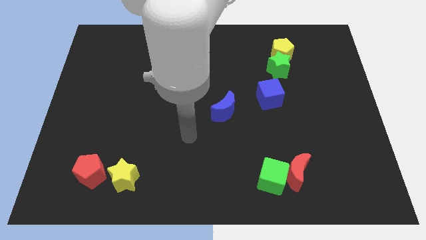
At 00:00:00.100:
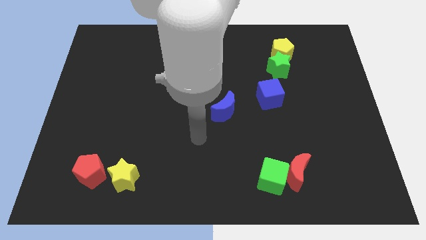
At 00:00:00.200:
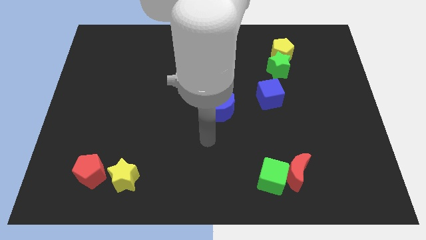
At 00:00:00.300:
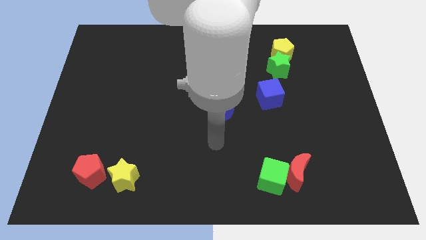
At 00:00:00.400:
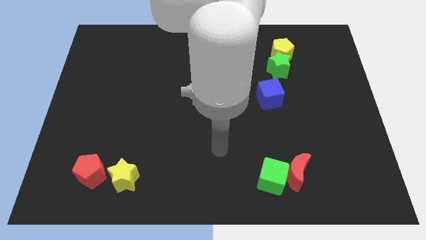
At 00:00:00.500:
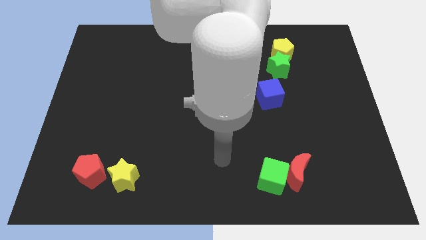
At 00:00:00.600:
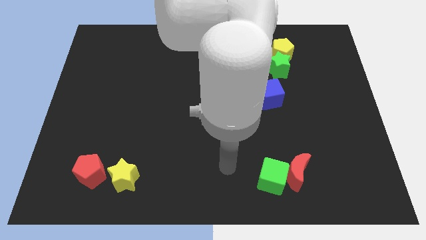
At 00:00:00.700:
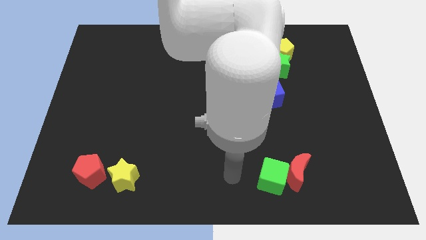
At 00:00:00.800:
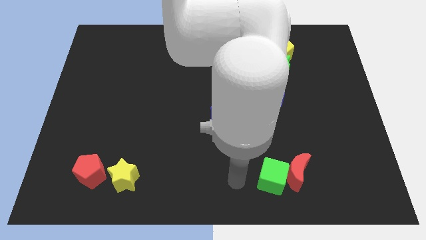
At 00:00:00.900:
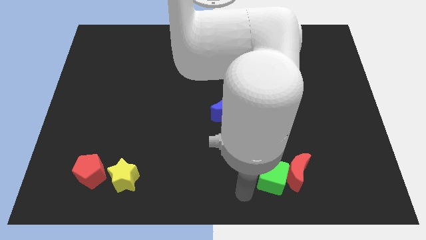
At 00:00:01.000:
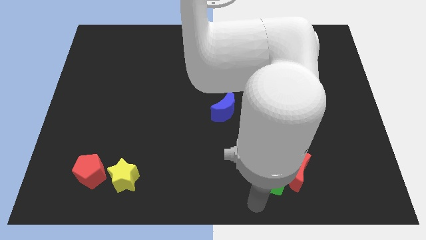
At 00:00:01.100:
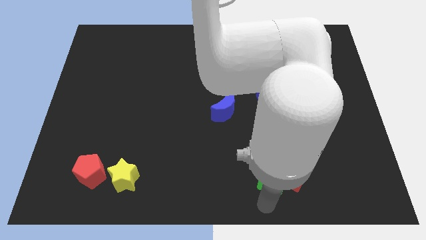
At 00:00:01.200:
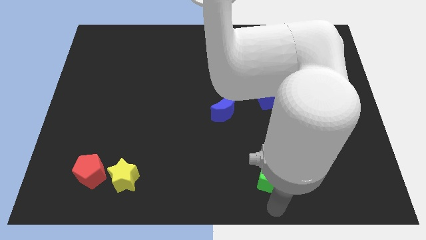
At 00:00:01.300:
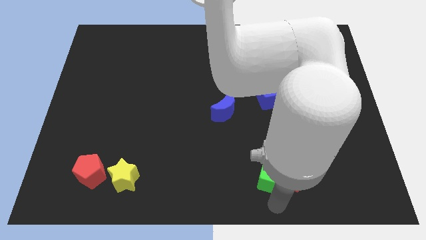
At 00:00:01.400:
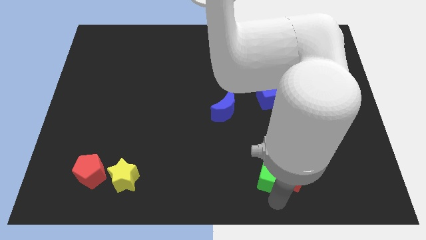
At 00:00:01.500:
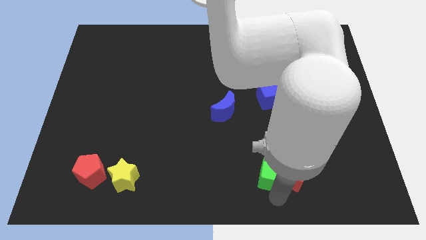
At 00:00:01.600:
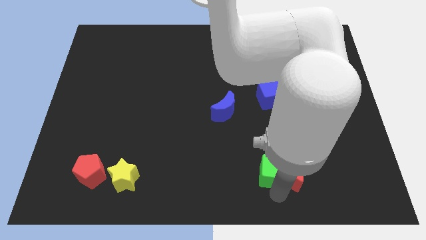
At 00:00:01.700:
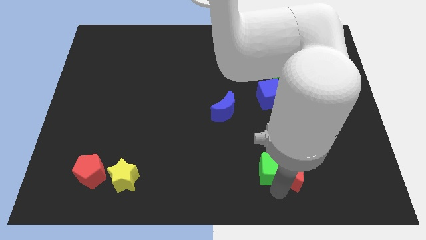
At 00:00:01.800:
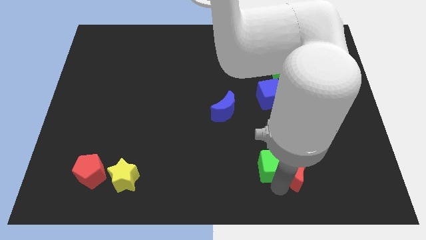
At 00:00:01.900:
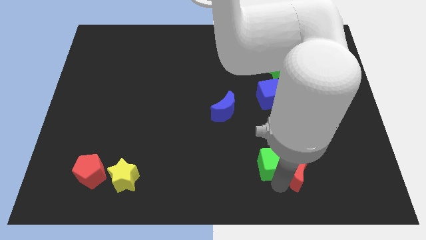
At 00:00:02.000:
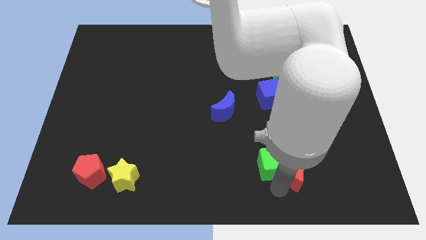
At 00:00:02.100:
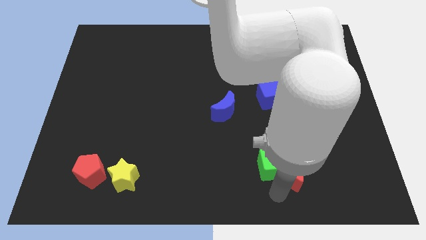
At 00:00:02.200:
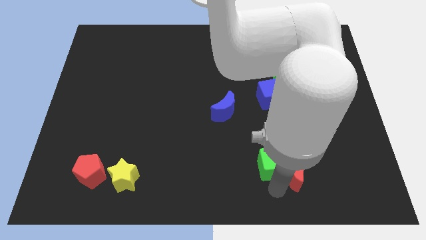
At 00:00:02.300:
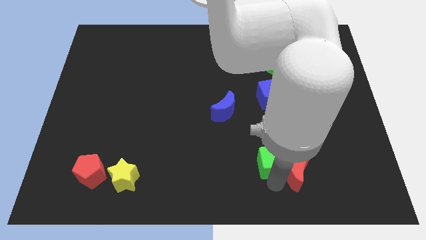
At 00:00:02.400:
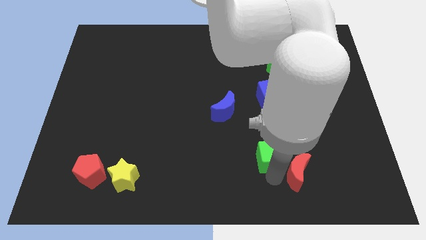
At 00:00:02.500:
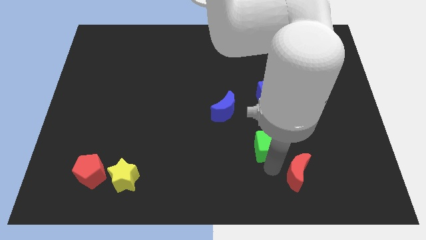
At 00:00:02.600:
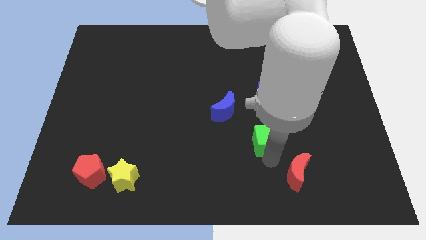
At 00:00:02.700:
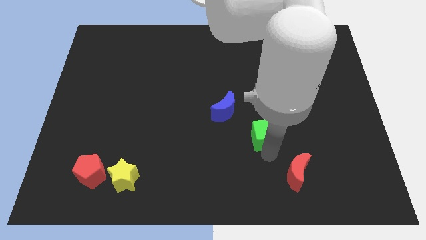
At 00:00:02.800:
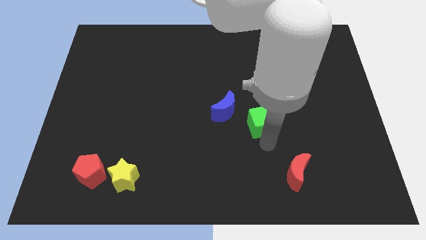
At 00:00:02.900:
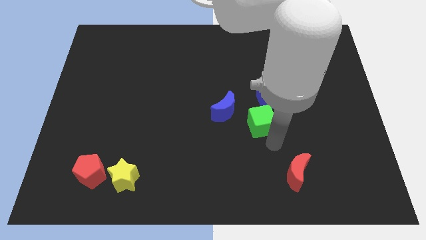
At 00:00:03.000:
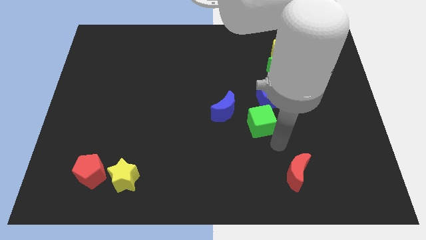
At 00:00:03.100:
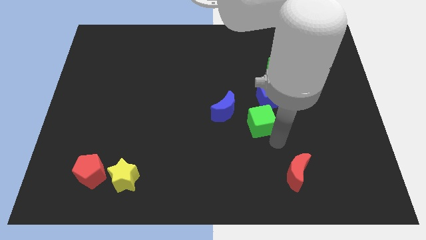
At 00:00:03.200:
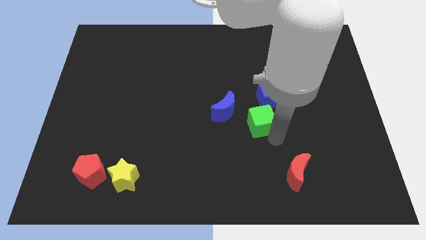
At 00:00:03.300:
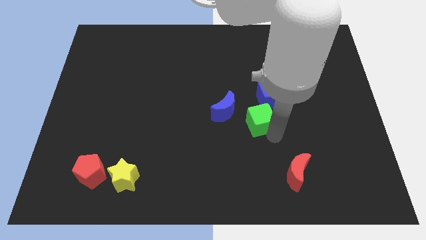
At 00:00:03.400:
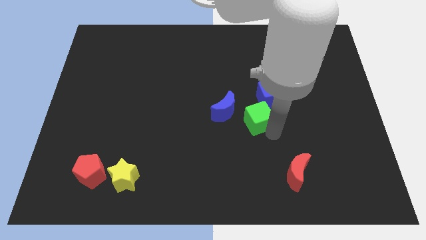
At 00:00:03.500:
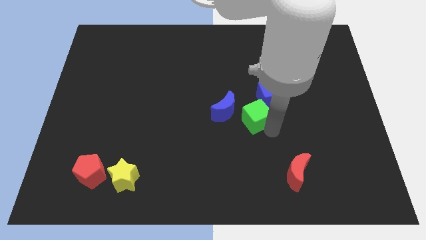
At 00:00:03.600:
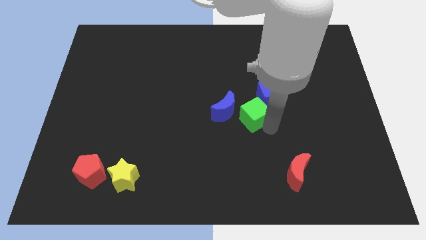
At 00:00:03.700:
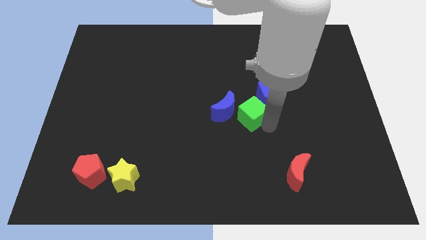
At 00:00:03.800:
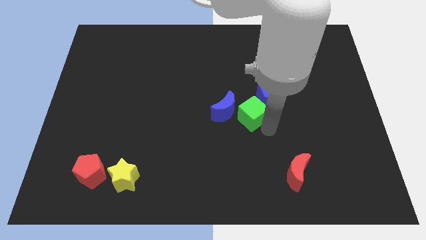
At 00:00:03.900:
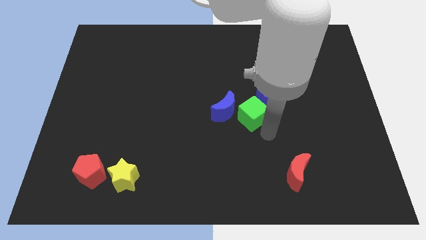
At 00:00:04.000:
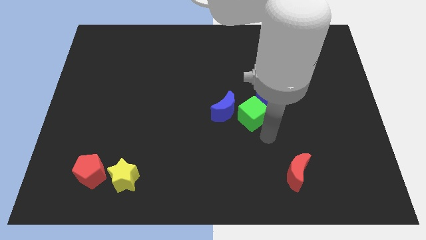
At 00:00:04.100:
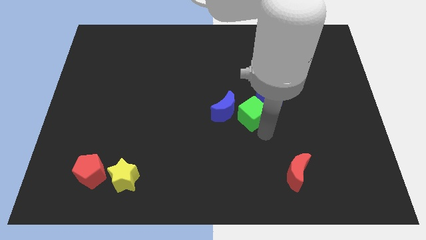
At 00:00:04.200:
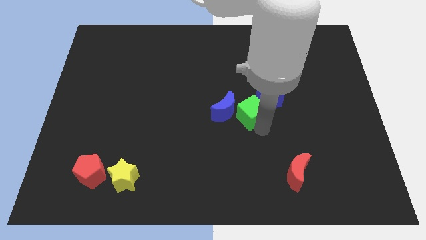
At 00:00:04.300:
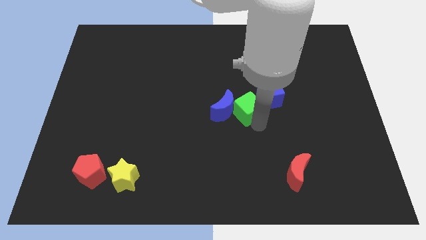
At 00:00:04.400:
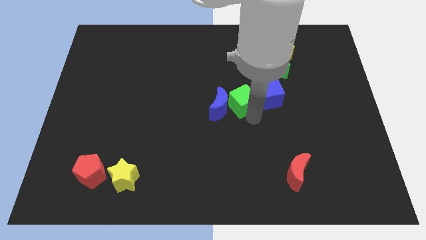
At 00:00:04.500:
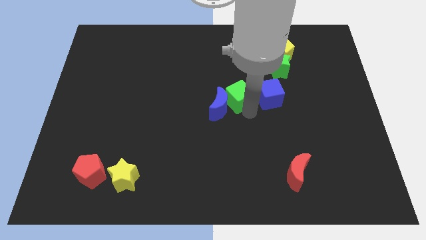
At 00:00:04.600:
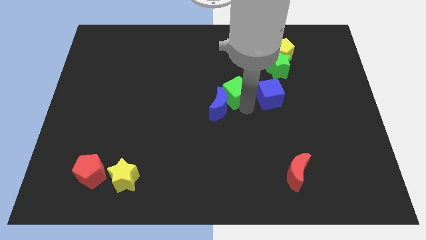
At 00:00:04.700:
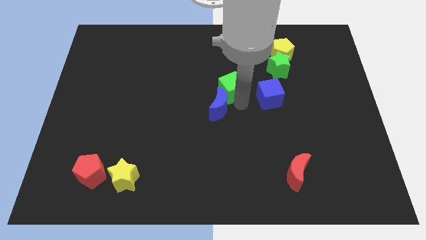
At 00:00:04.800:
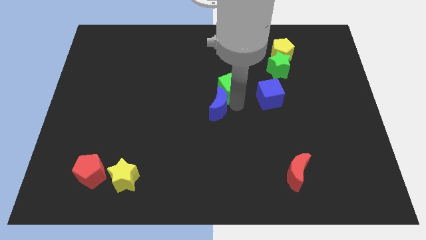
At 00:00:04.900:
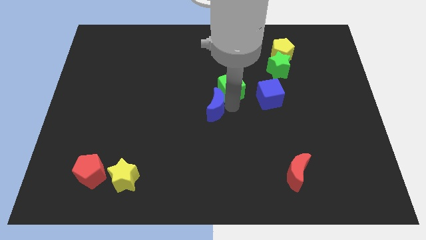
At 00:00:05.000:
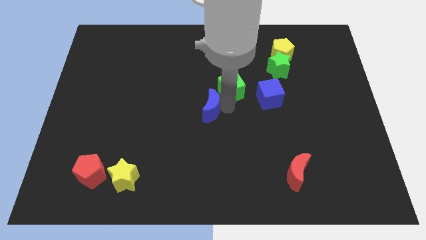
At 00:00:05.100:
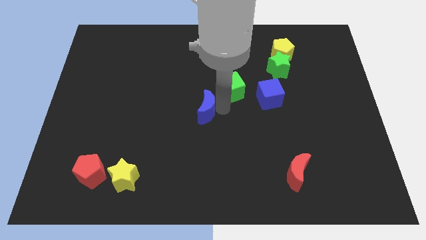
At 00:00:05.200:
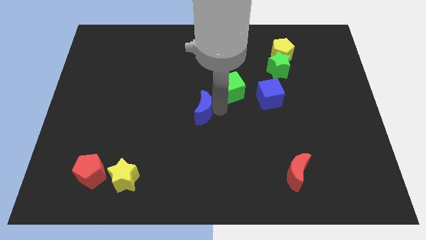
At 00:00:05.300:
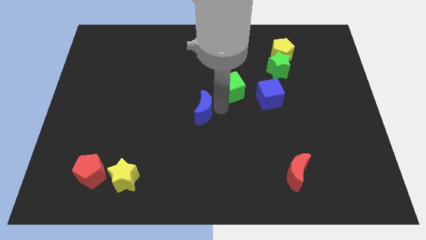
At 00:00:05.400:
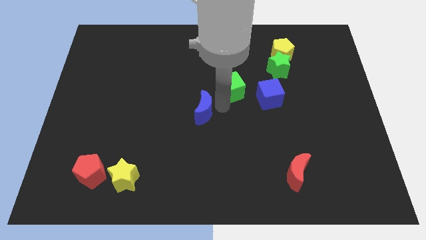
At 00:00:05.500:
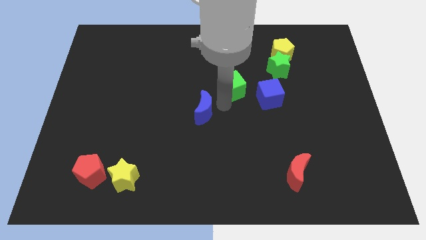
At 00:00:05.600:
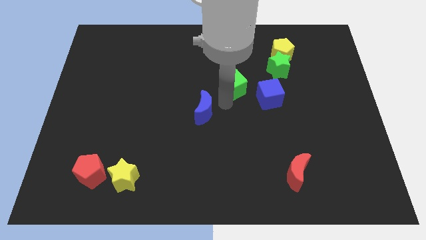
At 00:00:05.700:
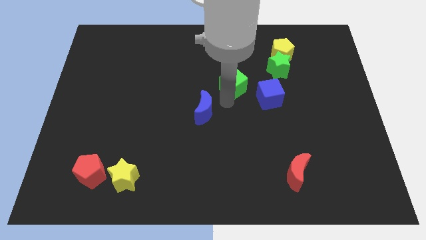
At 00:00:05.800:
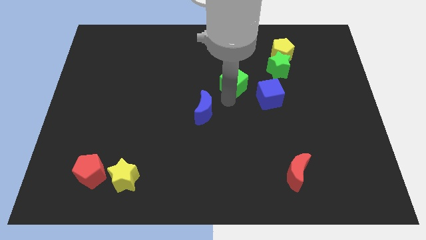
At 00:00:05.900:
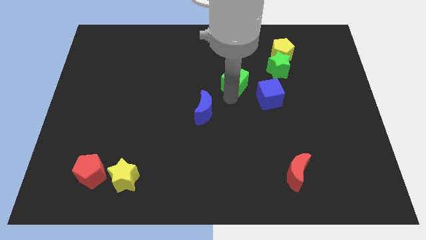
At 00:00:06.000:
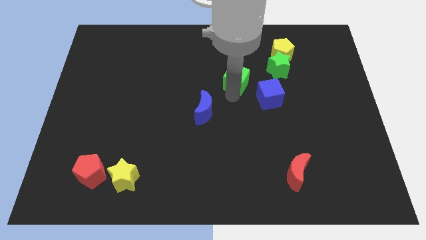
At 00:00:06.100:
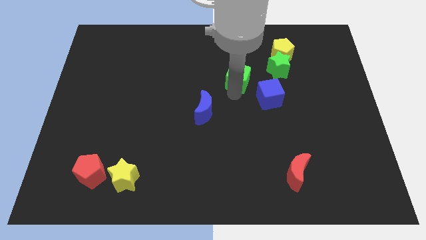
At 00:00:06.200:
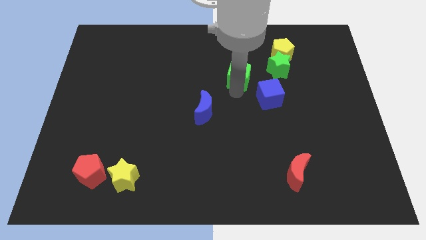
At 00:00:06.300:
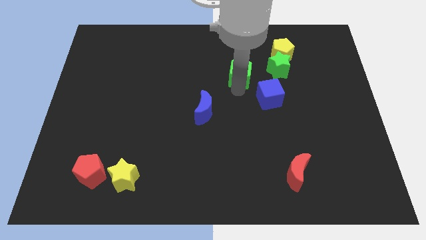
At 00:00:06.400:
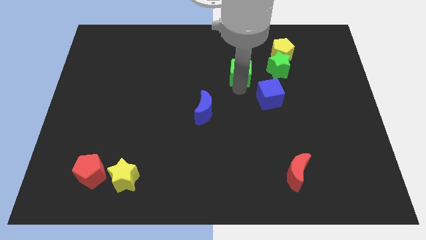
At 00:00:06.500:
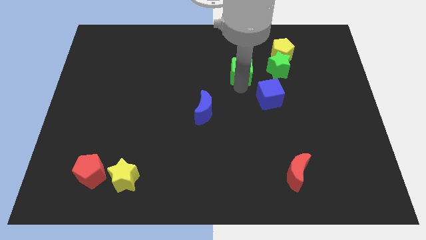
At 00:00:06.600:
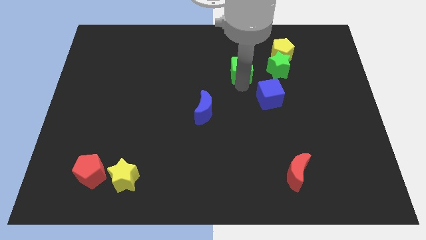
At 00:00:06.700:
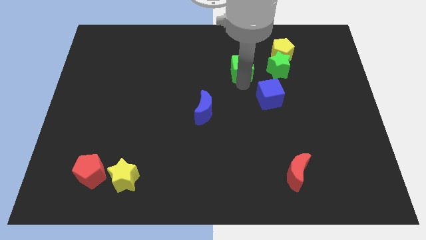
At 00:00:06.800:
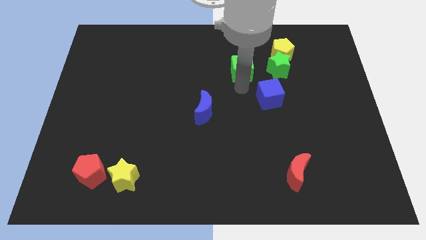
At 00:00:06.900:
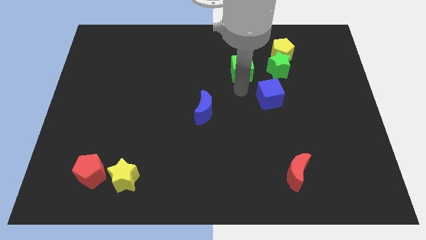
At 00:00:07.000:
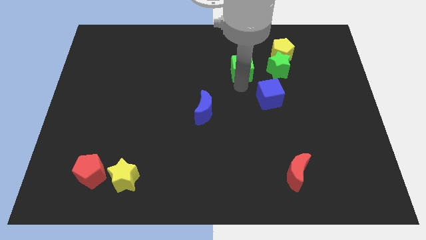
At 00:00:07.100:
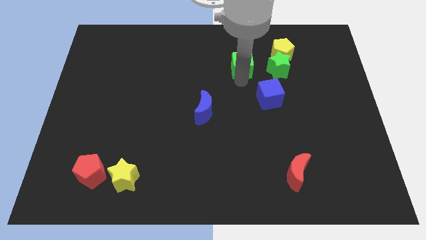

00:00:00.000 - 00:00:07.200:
slide the green cube just left of the yellow pentagon

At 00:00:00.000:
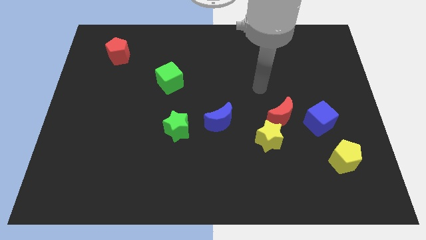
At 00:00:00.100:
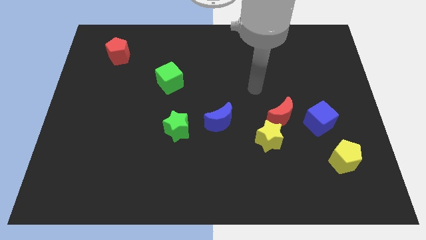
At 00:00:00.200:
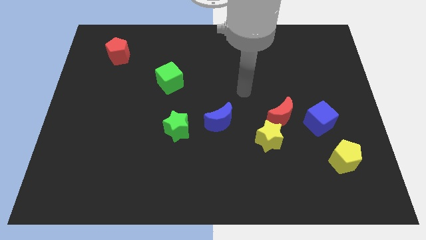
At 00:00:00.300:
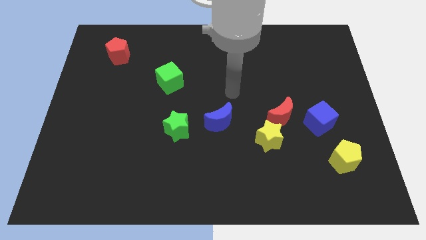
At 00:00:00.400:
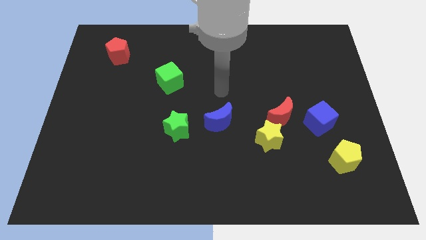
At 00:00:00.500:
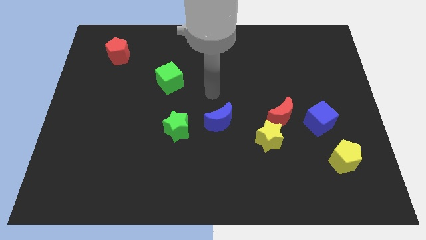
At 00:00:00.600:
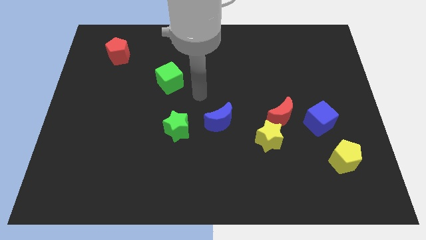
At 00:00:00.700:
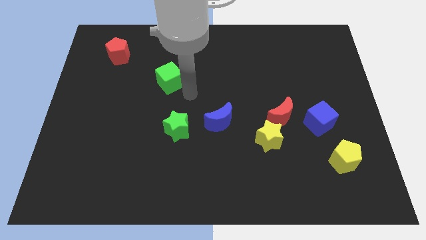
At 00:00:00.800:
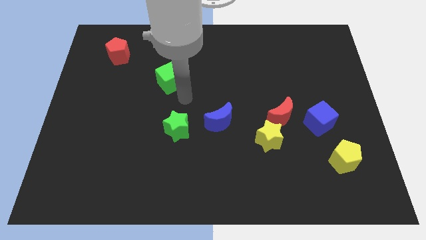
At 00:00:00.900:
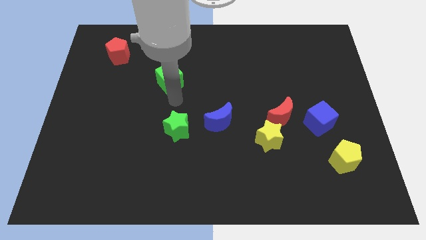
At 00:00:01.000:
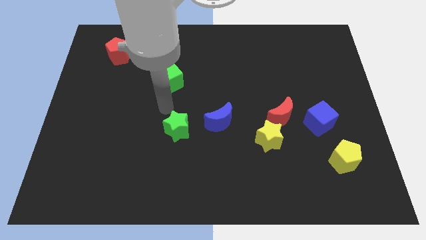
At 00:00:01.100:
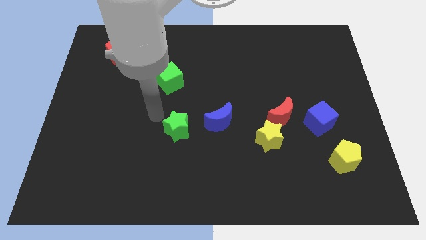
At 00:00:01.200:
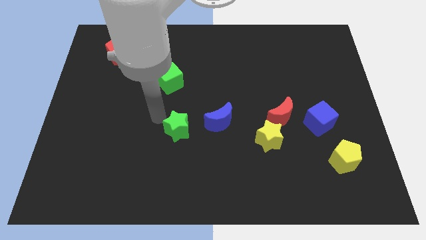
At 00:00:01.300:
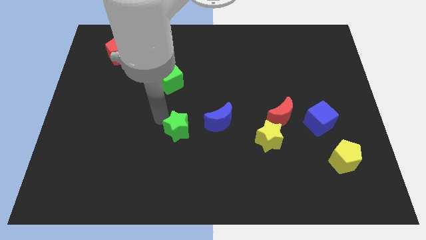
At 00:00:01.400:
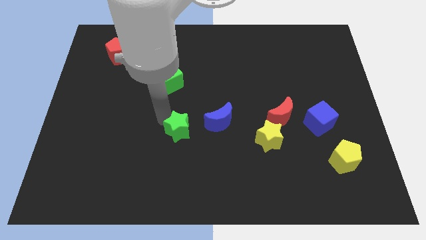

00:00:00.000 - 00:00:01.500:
put the green star to the bottom left side of the blue moon
